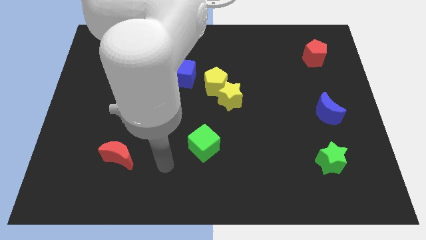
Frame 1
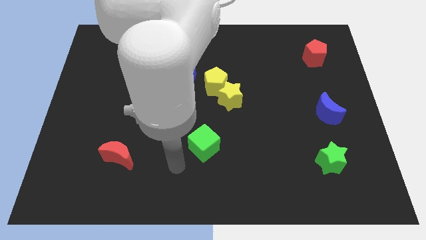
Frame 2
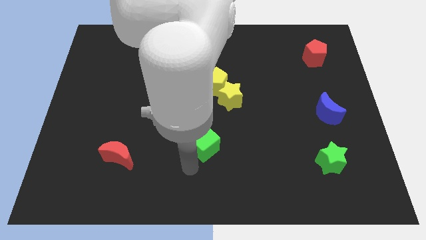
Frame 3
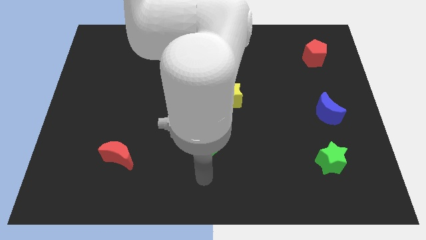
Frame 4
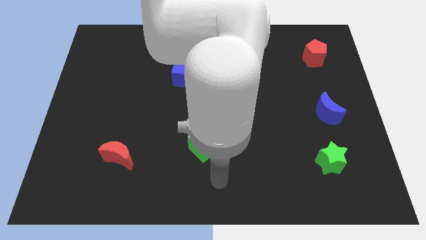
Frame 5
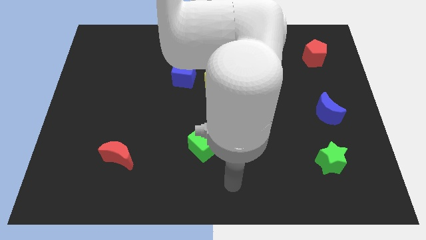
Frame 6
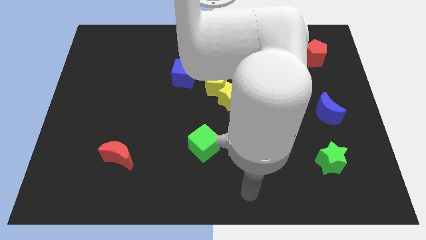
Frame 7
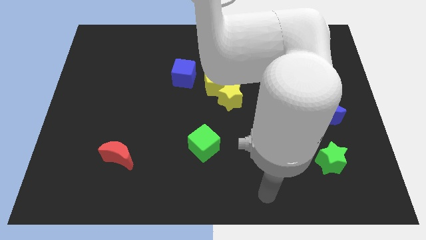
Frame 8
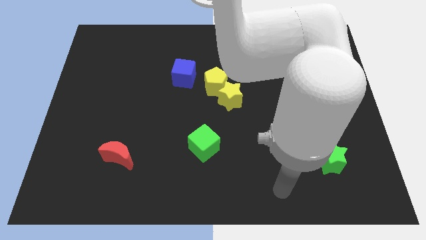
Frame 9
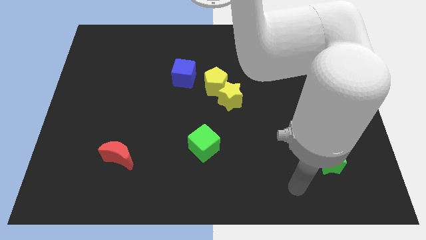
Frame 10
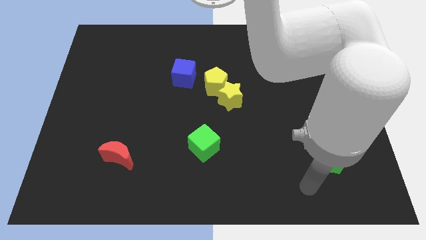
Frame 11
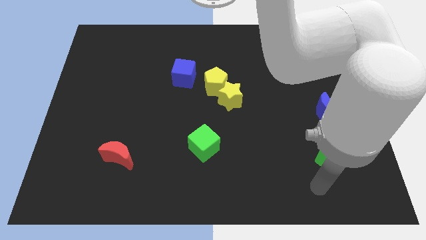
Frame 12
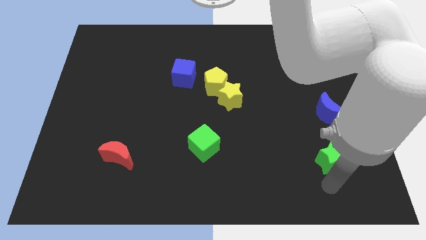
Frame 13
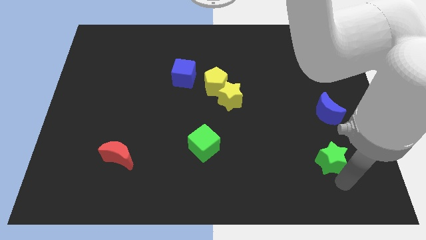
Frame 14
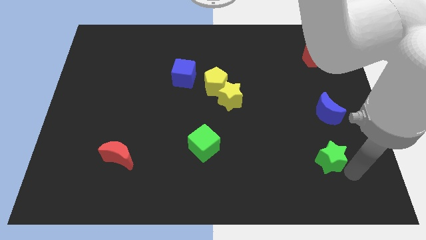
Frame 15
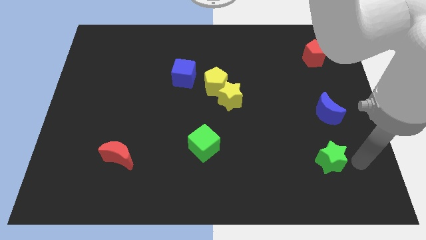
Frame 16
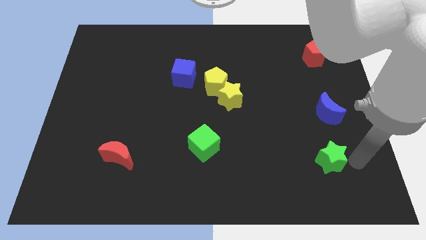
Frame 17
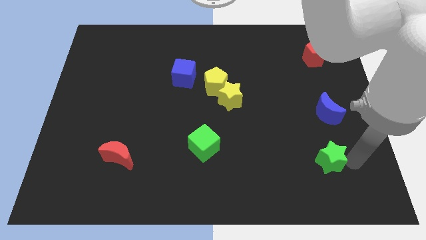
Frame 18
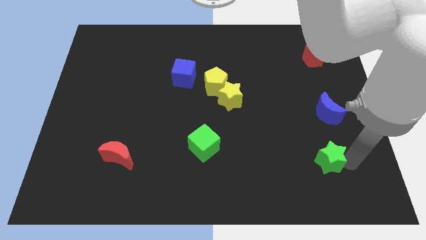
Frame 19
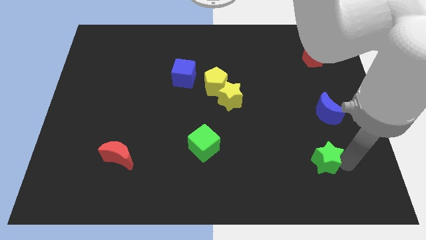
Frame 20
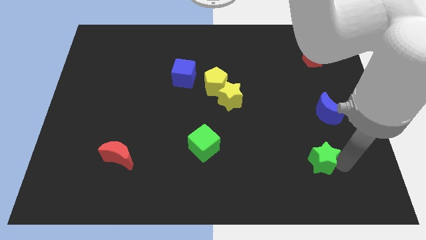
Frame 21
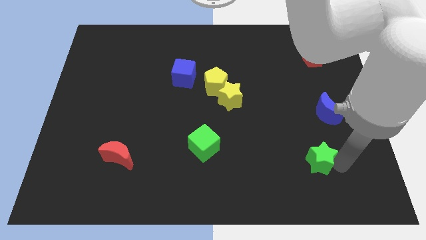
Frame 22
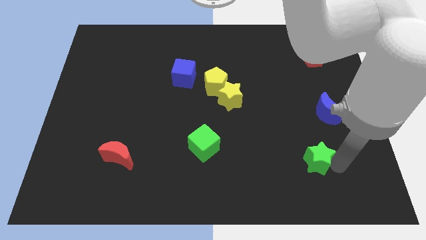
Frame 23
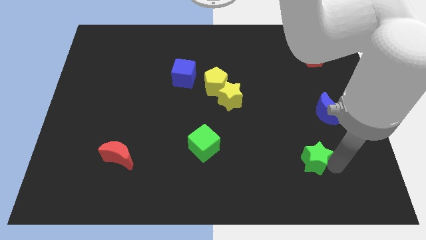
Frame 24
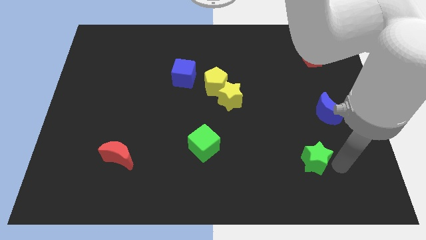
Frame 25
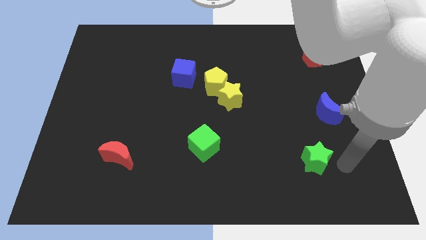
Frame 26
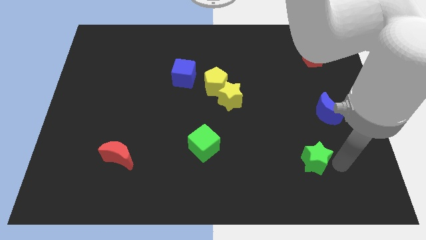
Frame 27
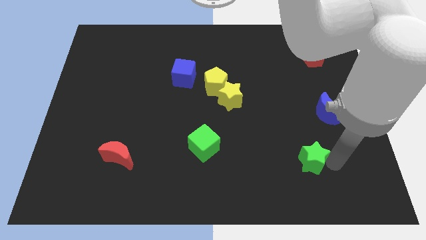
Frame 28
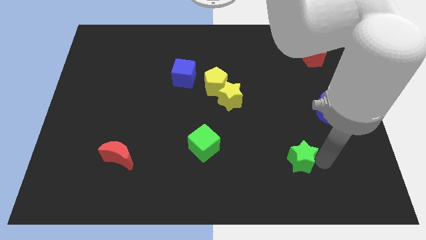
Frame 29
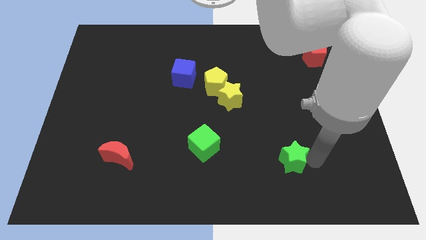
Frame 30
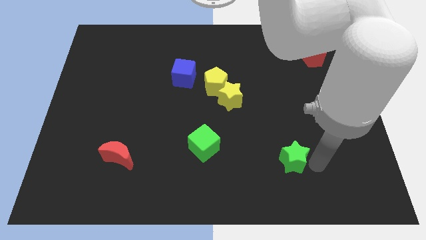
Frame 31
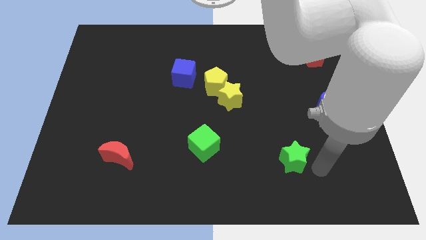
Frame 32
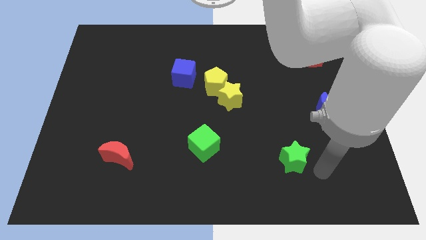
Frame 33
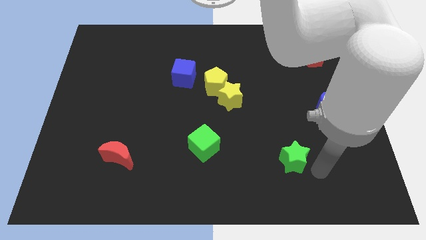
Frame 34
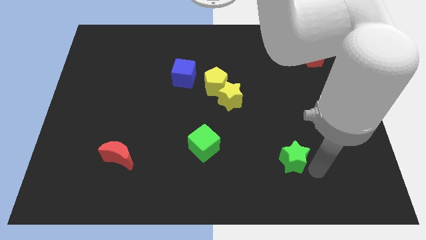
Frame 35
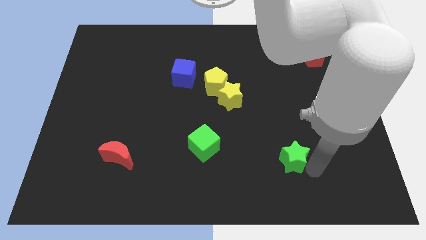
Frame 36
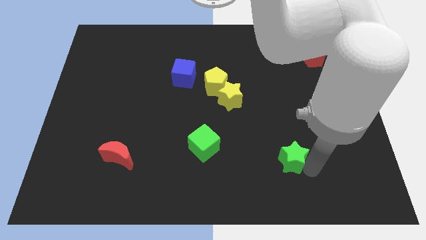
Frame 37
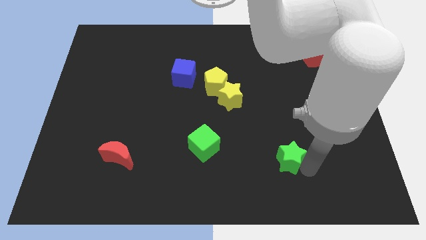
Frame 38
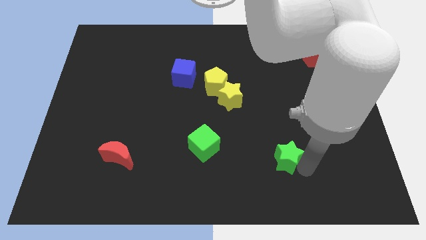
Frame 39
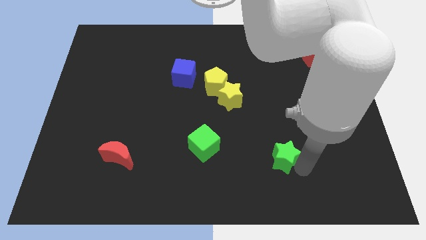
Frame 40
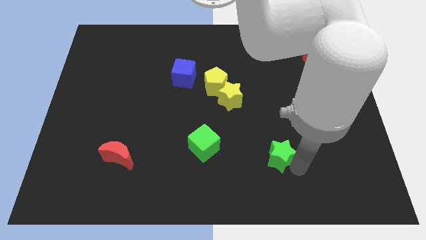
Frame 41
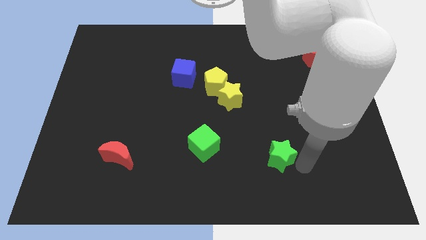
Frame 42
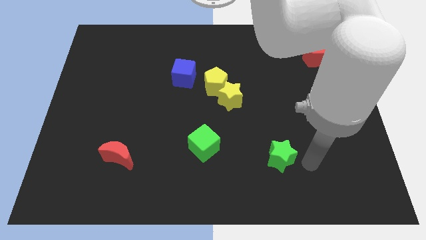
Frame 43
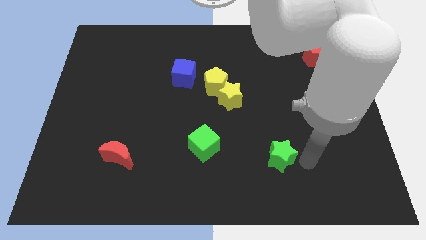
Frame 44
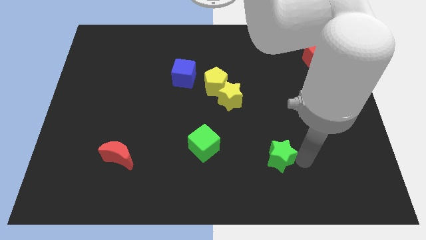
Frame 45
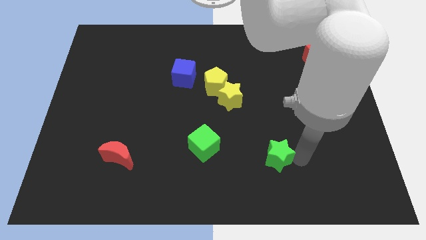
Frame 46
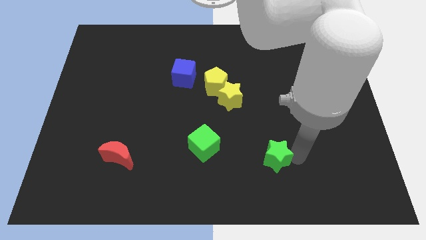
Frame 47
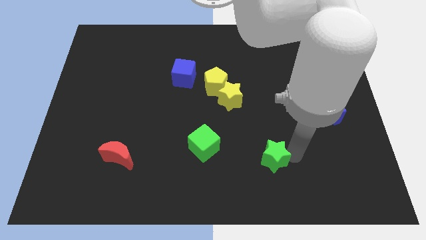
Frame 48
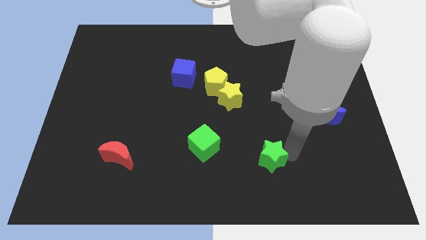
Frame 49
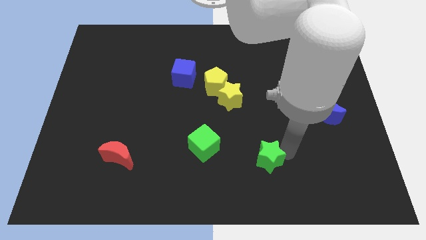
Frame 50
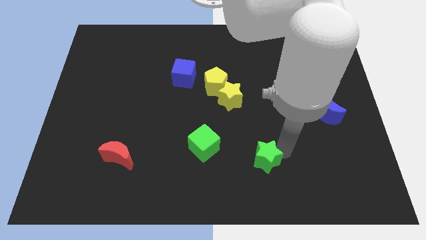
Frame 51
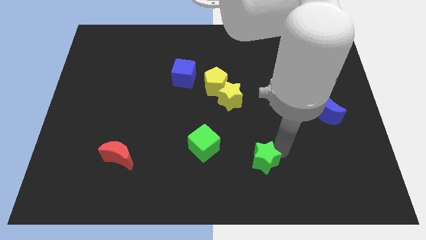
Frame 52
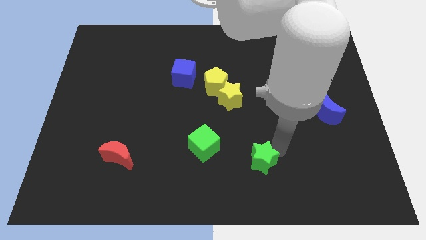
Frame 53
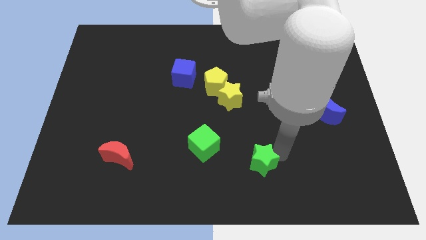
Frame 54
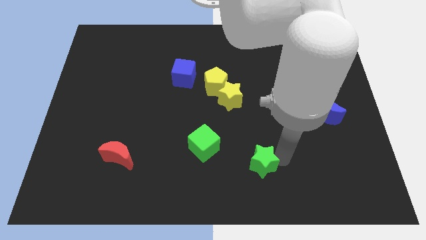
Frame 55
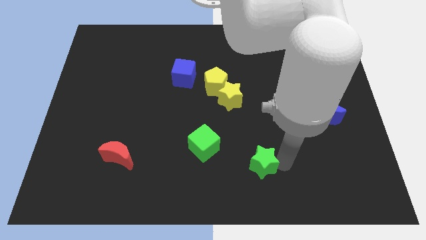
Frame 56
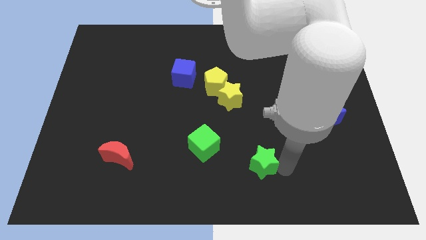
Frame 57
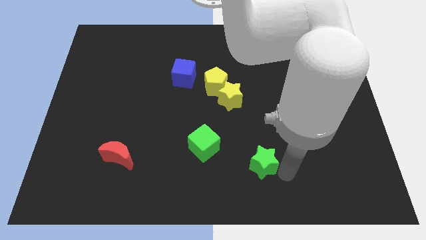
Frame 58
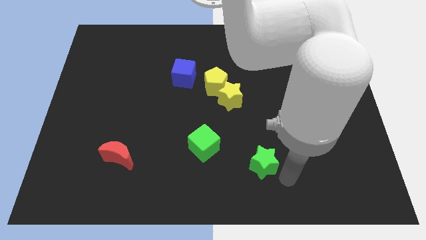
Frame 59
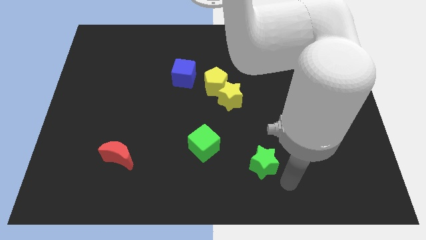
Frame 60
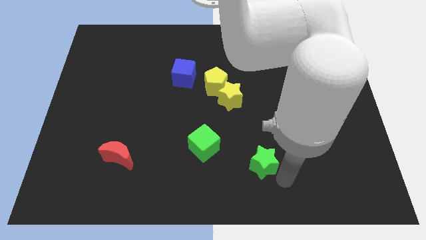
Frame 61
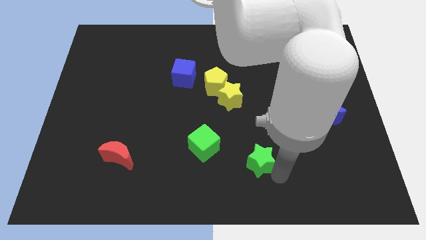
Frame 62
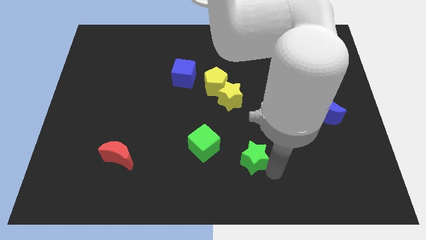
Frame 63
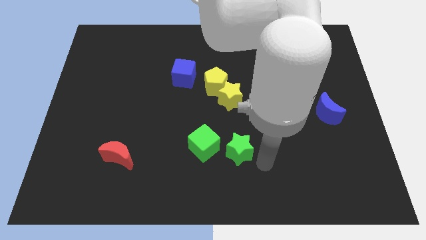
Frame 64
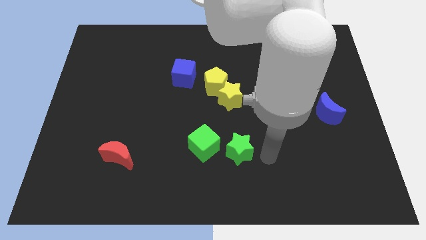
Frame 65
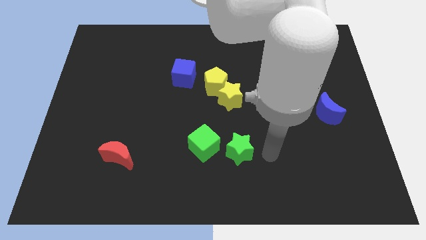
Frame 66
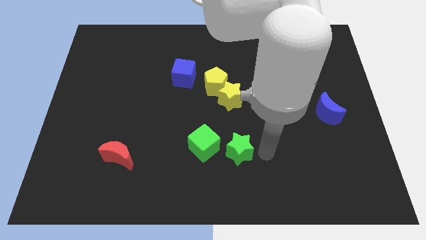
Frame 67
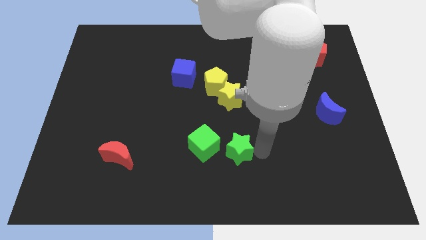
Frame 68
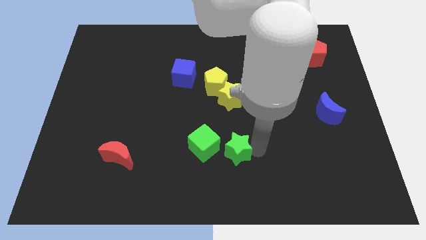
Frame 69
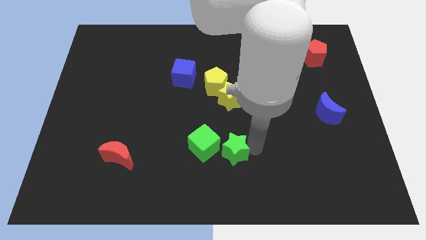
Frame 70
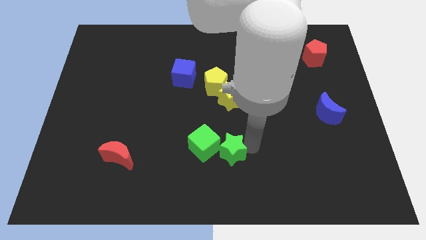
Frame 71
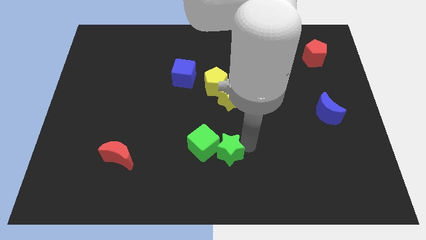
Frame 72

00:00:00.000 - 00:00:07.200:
move the green star next to the green cube
